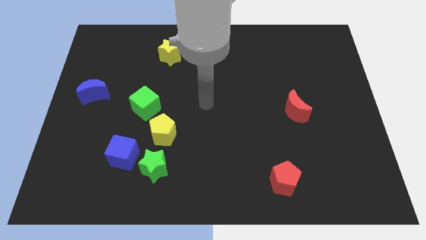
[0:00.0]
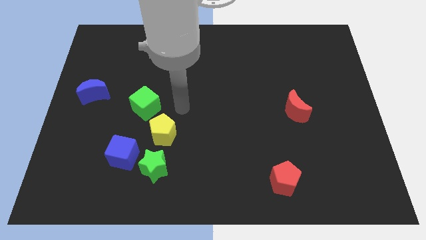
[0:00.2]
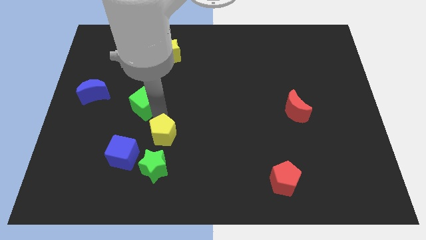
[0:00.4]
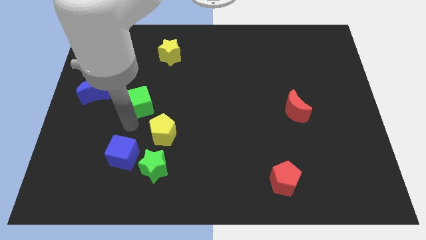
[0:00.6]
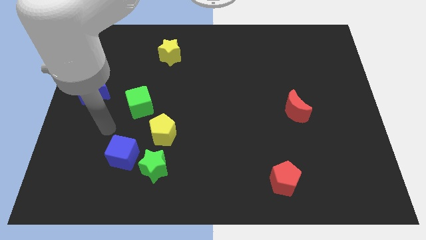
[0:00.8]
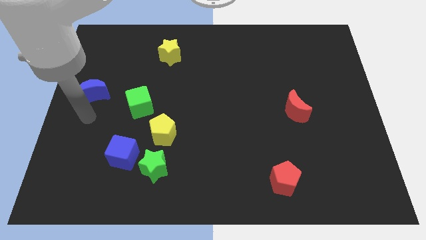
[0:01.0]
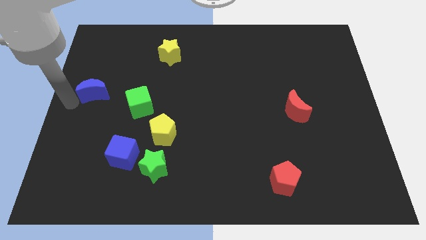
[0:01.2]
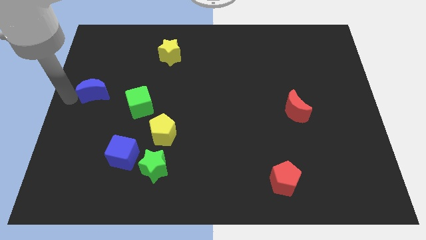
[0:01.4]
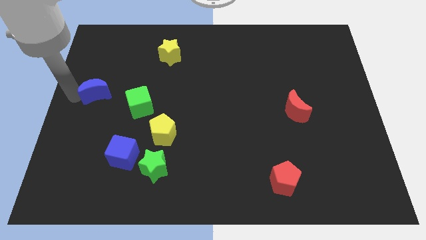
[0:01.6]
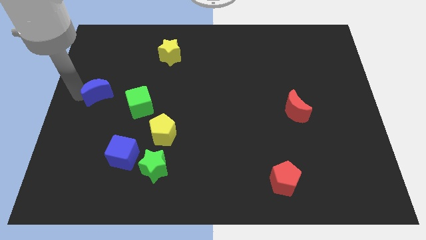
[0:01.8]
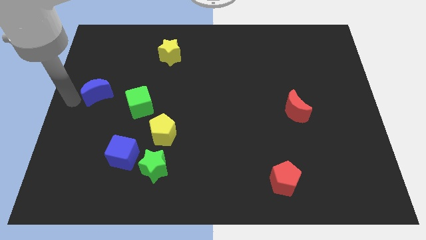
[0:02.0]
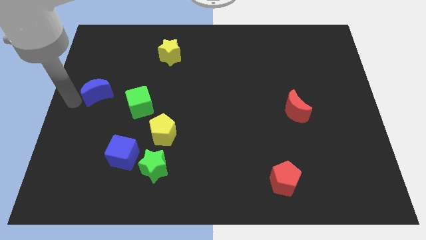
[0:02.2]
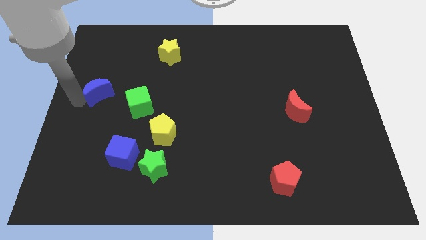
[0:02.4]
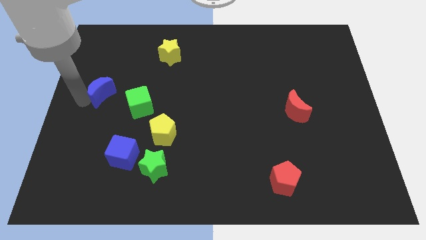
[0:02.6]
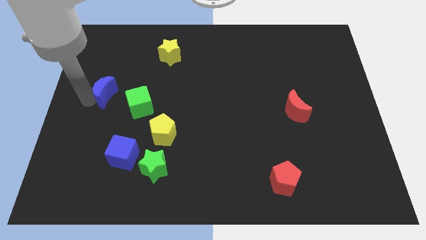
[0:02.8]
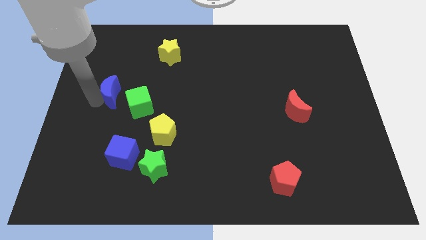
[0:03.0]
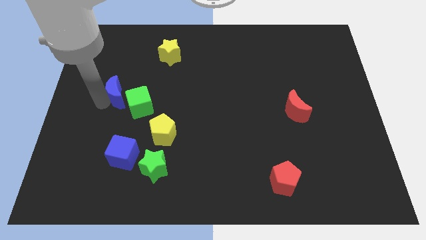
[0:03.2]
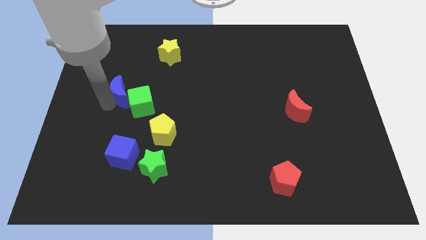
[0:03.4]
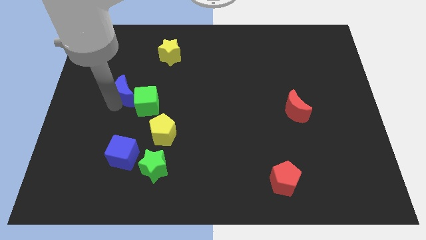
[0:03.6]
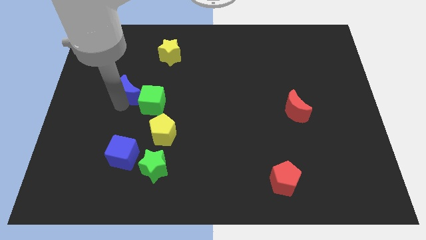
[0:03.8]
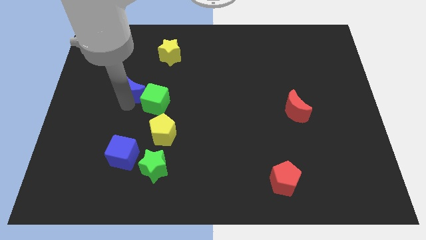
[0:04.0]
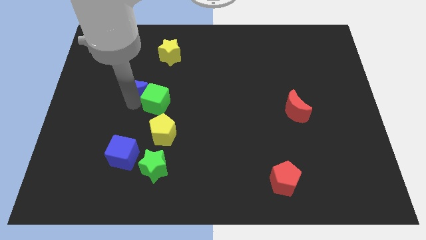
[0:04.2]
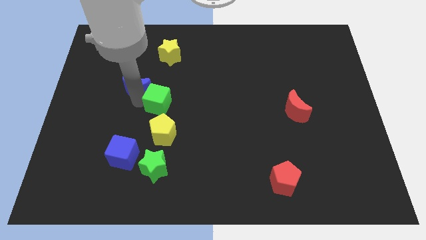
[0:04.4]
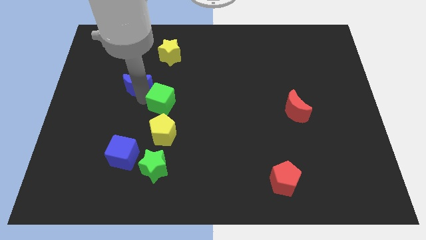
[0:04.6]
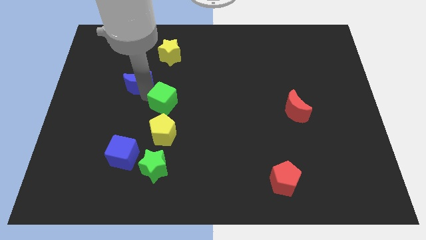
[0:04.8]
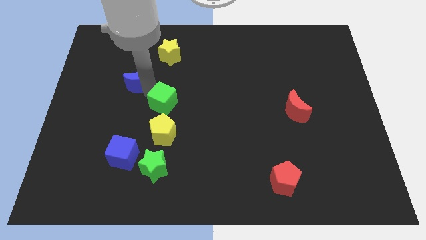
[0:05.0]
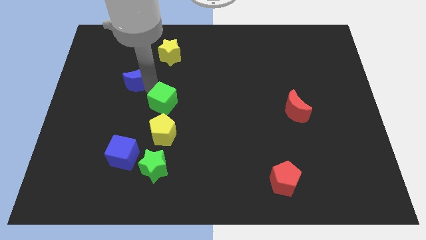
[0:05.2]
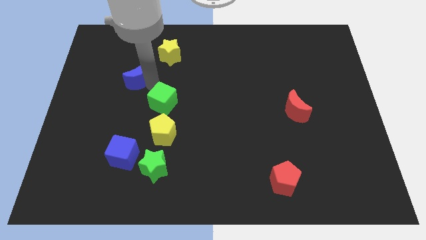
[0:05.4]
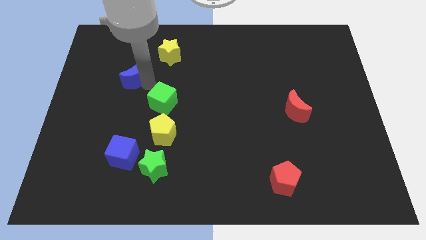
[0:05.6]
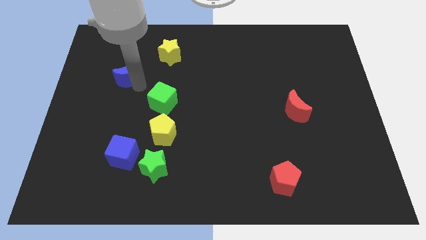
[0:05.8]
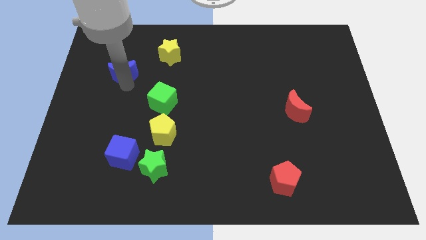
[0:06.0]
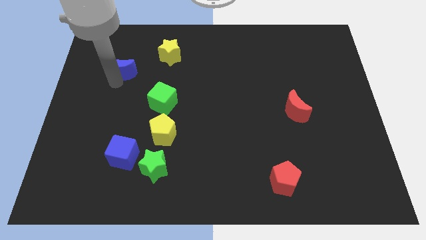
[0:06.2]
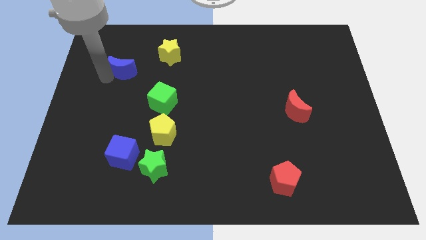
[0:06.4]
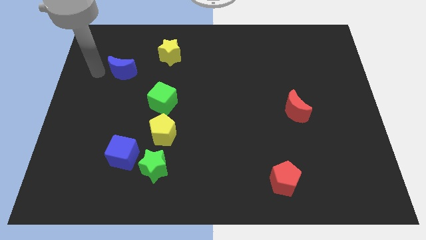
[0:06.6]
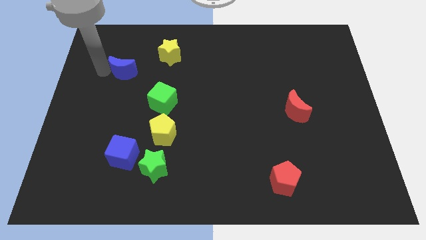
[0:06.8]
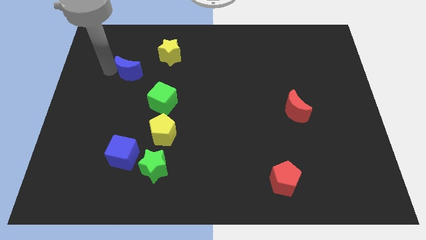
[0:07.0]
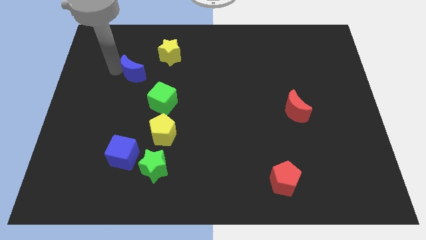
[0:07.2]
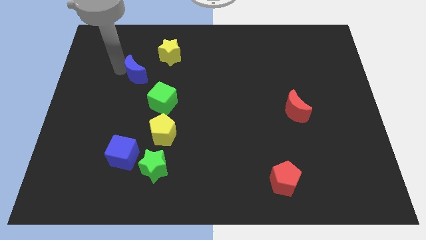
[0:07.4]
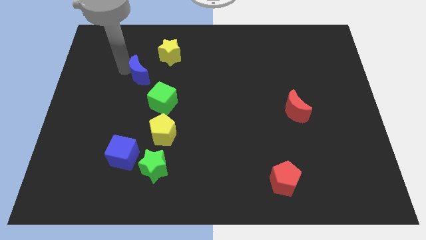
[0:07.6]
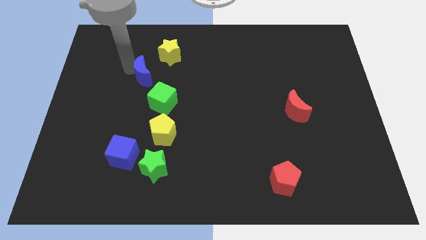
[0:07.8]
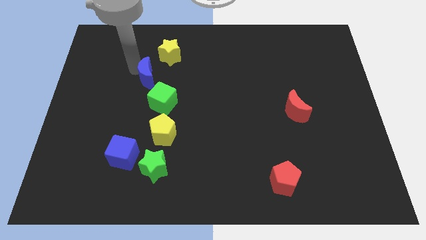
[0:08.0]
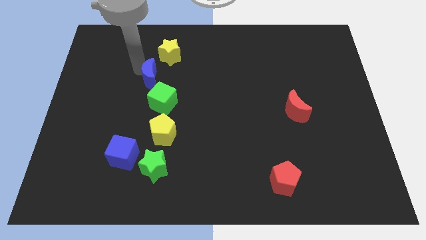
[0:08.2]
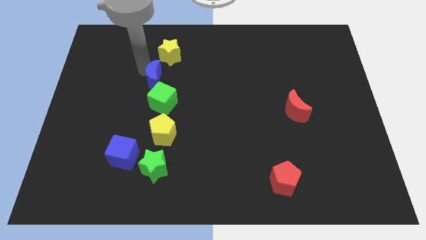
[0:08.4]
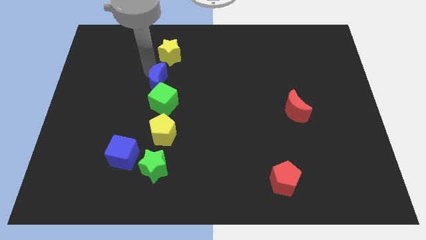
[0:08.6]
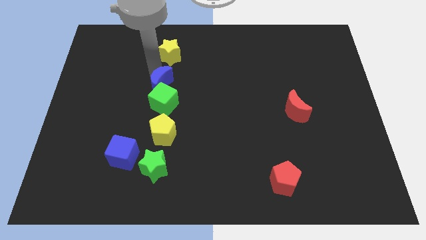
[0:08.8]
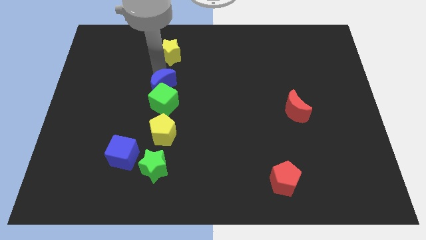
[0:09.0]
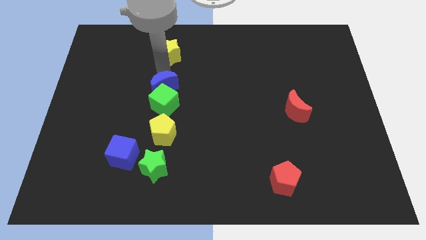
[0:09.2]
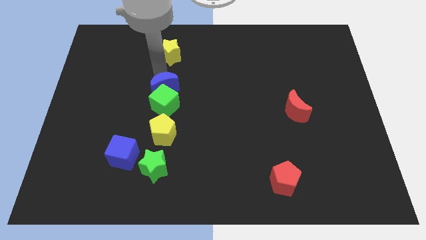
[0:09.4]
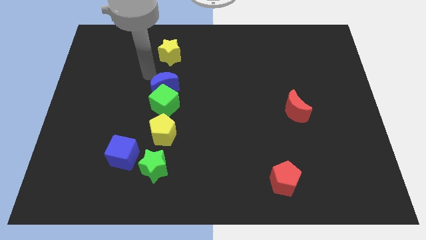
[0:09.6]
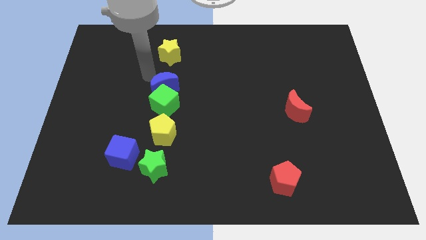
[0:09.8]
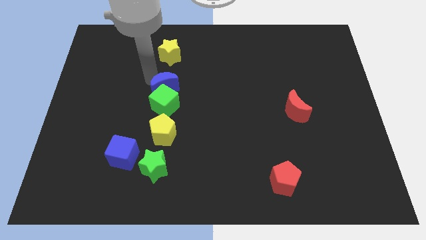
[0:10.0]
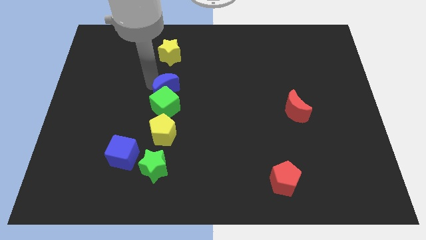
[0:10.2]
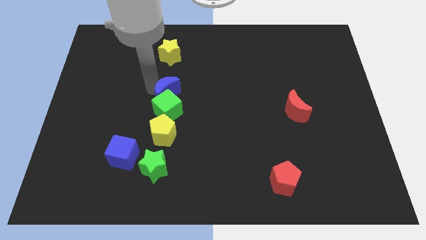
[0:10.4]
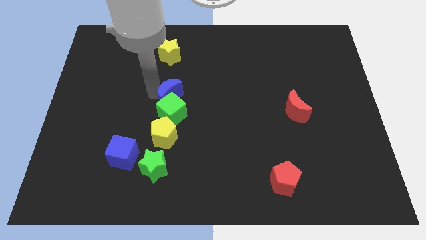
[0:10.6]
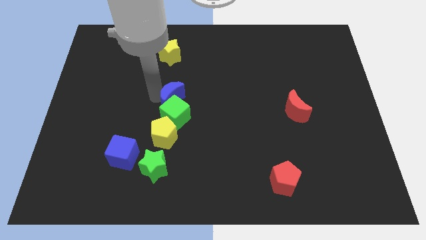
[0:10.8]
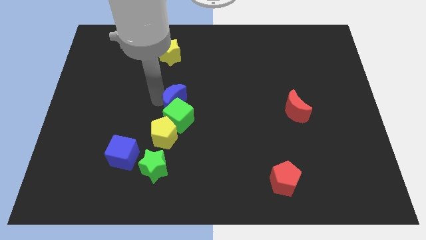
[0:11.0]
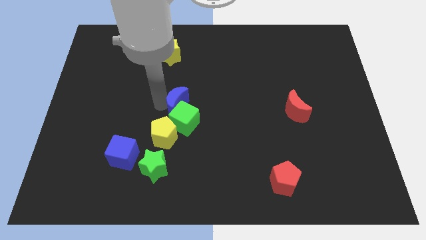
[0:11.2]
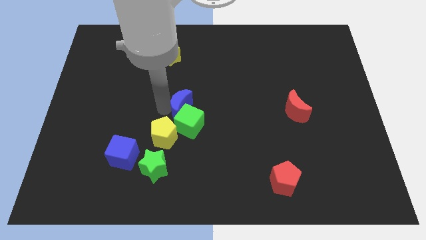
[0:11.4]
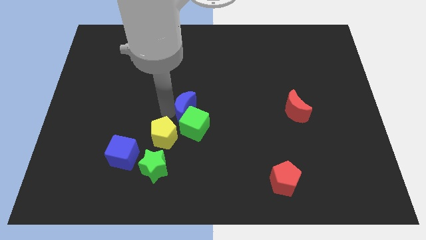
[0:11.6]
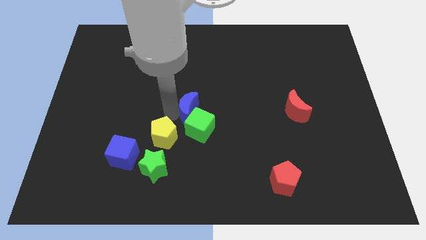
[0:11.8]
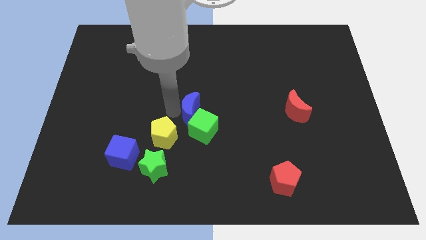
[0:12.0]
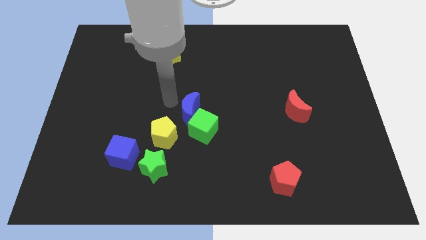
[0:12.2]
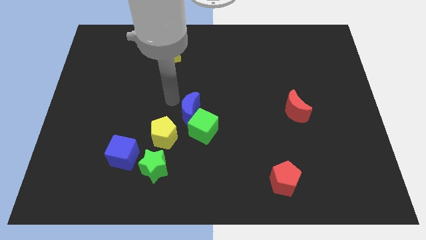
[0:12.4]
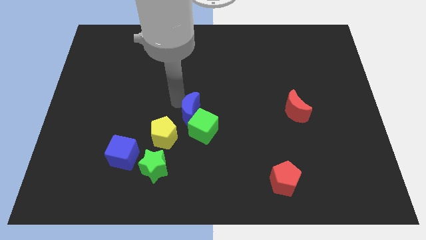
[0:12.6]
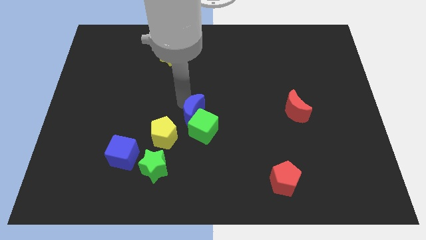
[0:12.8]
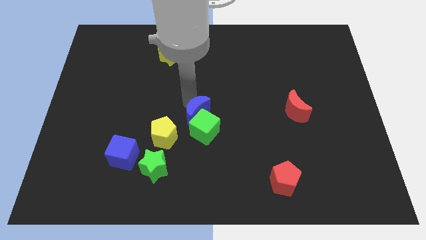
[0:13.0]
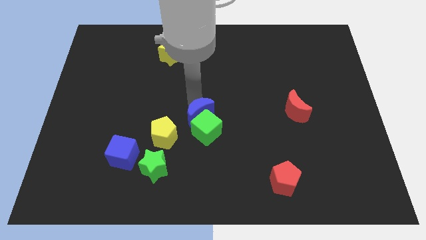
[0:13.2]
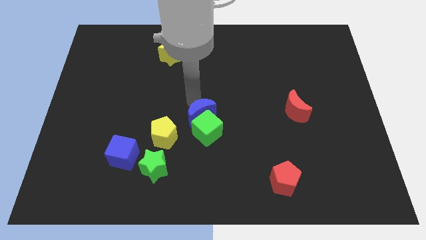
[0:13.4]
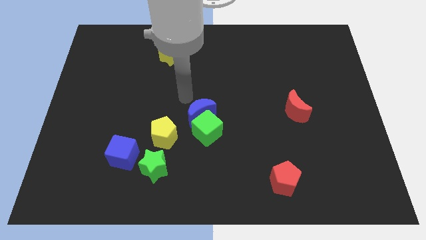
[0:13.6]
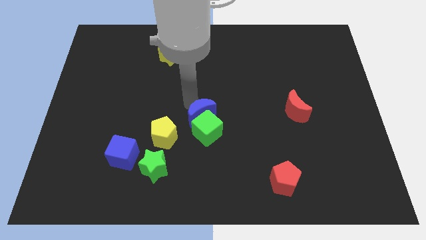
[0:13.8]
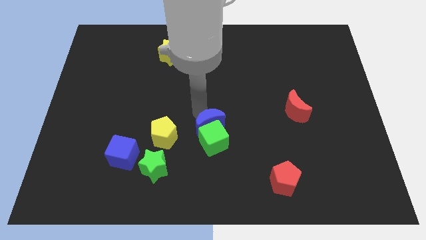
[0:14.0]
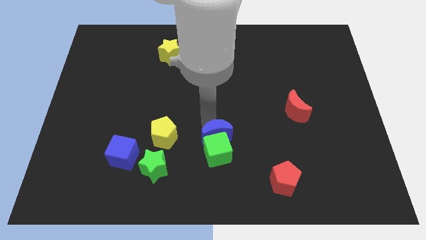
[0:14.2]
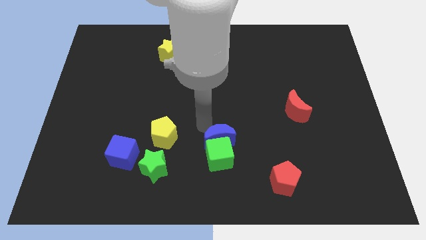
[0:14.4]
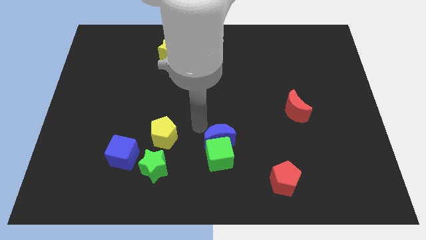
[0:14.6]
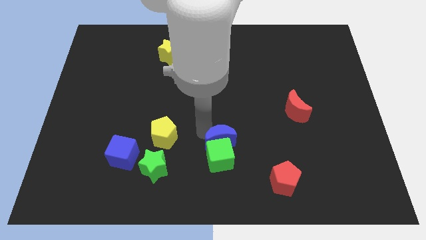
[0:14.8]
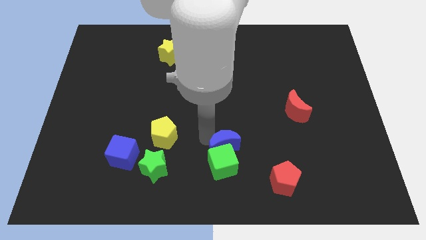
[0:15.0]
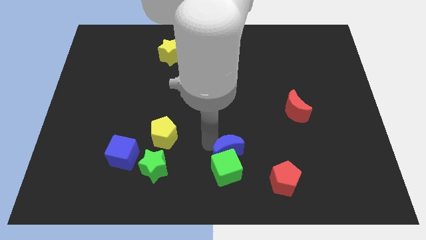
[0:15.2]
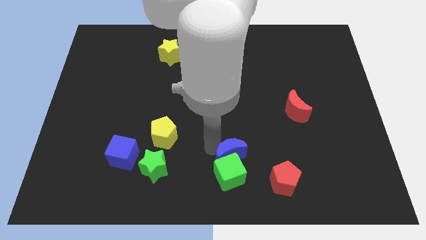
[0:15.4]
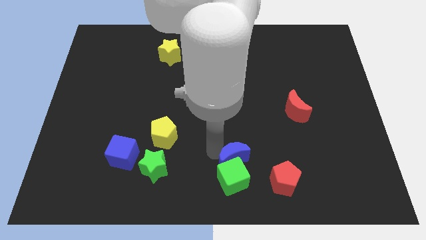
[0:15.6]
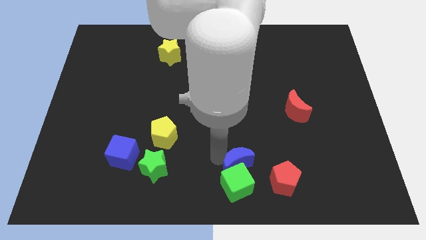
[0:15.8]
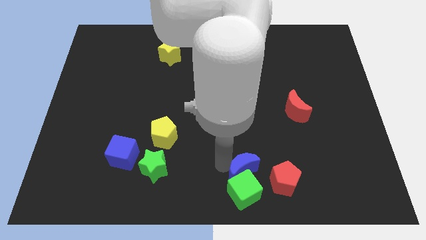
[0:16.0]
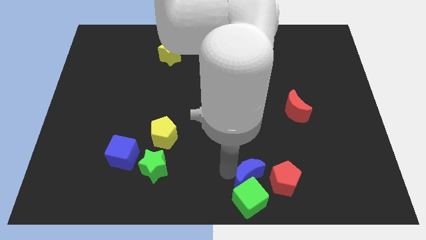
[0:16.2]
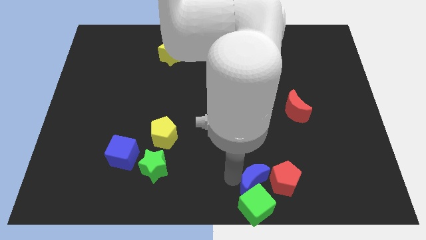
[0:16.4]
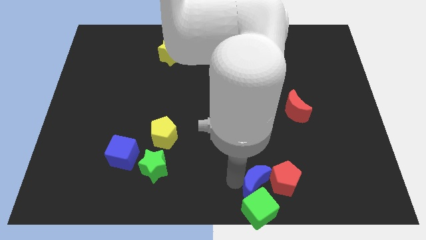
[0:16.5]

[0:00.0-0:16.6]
put the blue moon to the red pentagon
